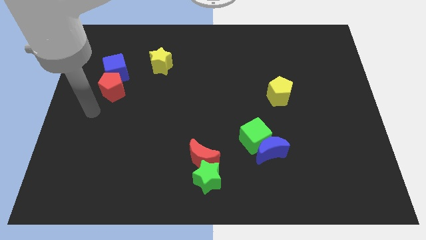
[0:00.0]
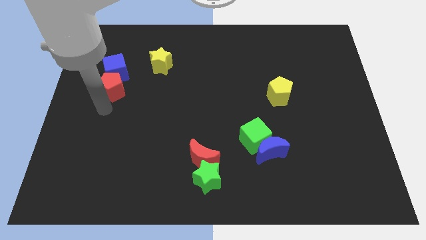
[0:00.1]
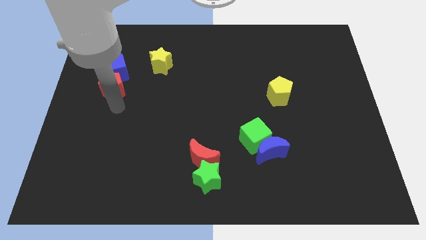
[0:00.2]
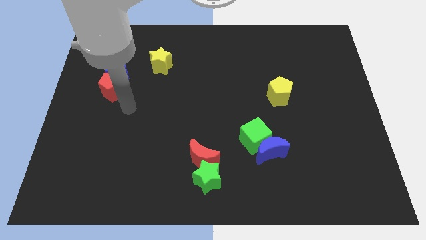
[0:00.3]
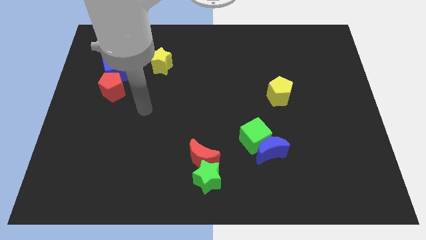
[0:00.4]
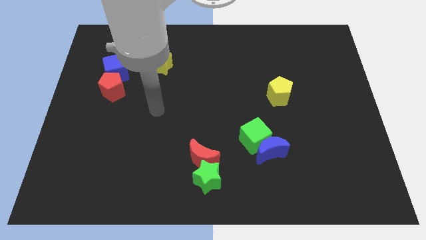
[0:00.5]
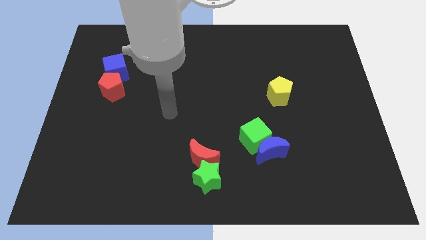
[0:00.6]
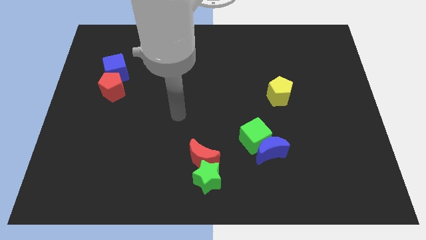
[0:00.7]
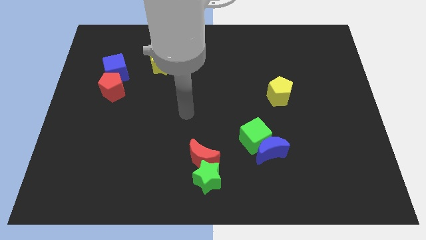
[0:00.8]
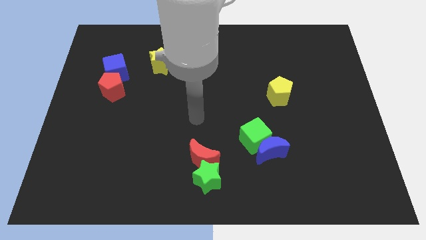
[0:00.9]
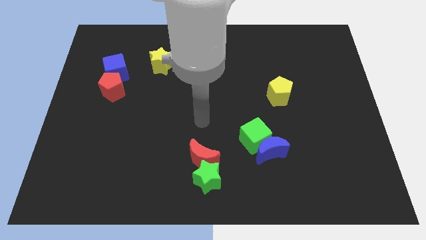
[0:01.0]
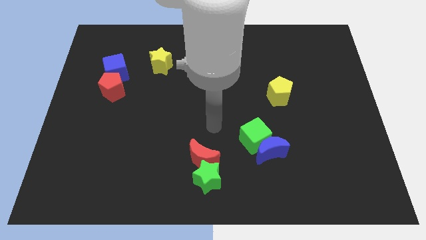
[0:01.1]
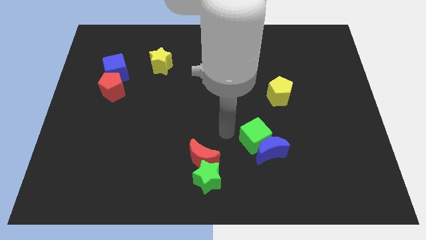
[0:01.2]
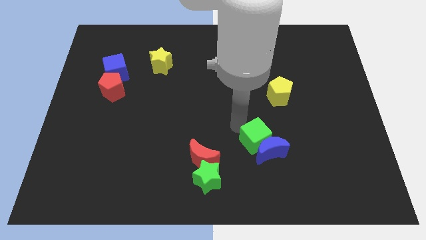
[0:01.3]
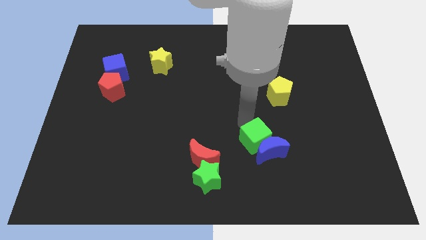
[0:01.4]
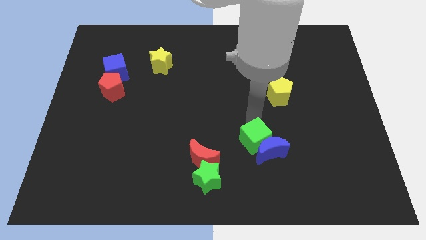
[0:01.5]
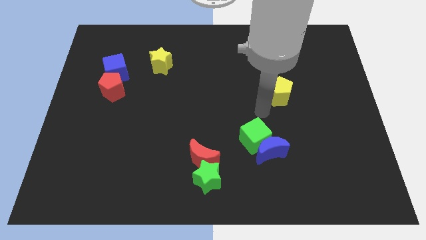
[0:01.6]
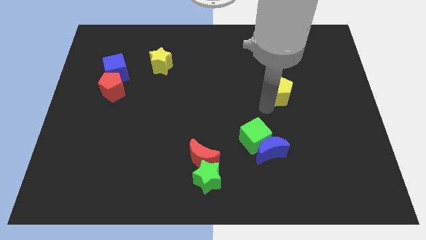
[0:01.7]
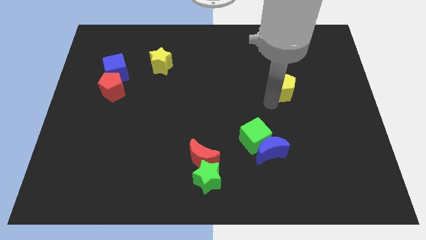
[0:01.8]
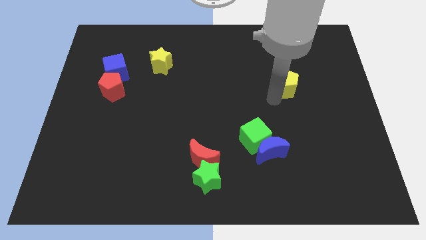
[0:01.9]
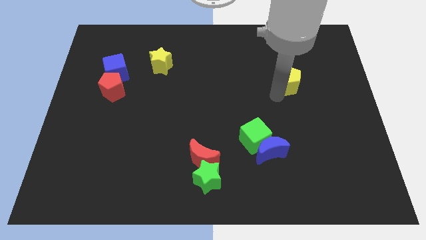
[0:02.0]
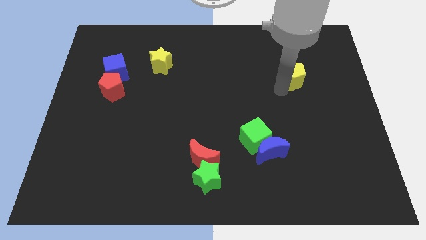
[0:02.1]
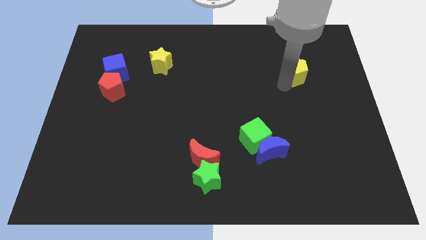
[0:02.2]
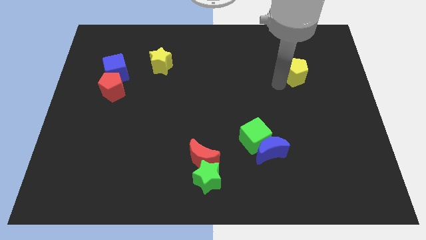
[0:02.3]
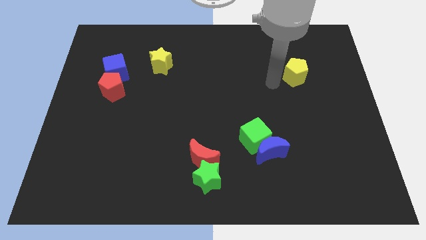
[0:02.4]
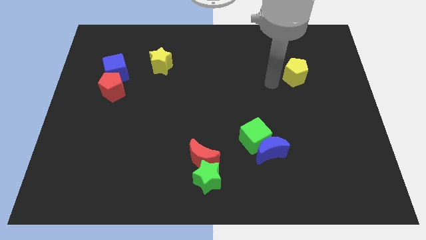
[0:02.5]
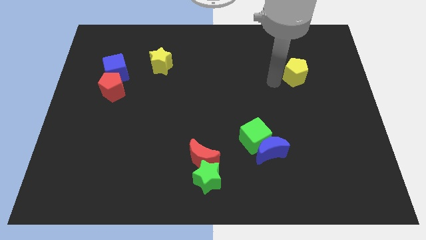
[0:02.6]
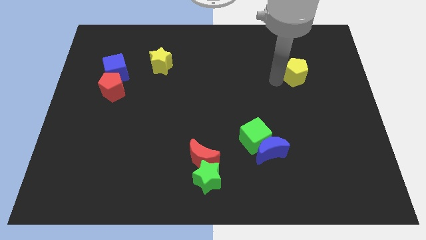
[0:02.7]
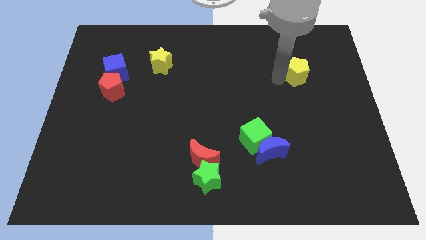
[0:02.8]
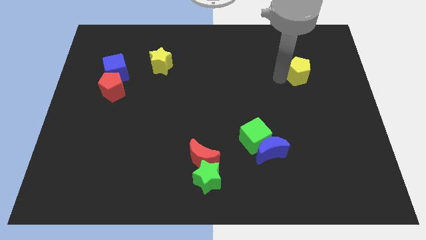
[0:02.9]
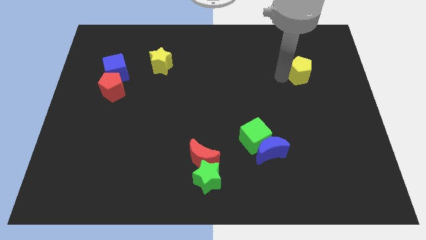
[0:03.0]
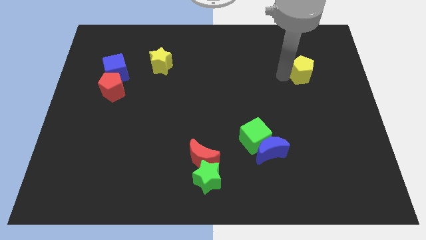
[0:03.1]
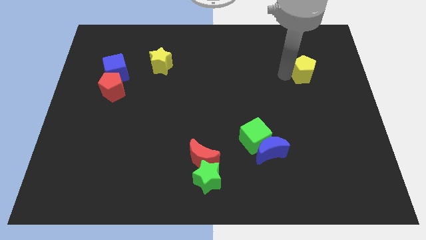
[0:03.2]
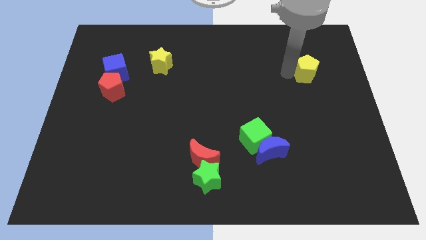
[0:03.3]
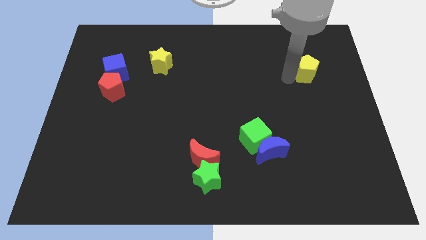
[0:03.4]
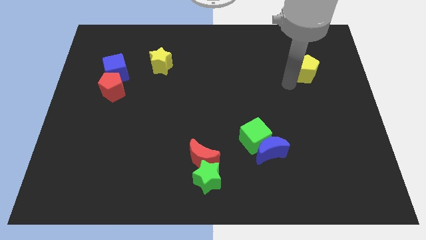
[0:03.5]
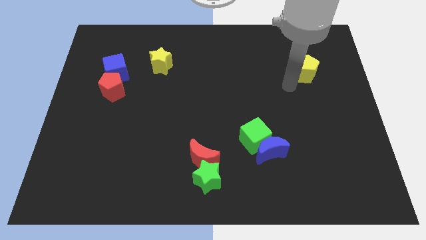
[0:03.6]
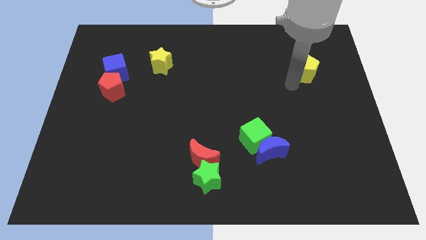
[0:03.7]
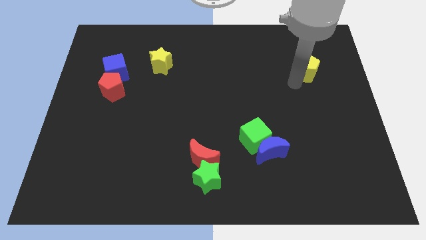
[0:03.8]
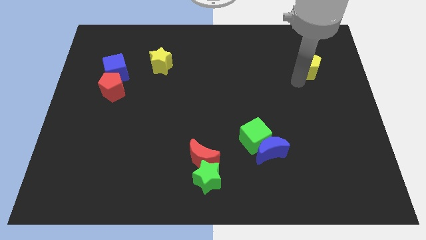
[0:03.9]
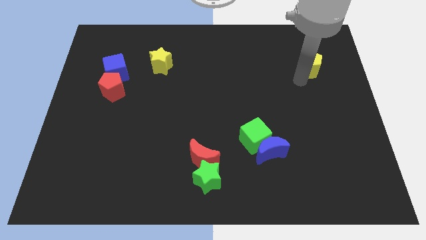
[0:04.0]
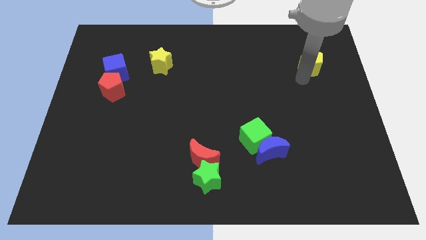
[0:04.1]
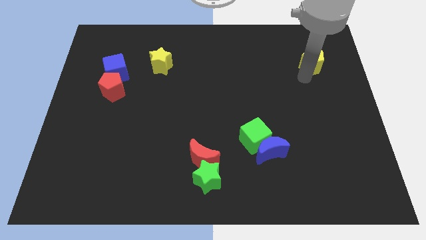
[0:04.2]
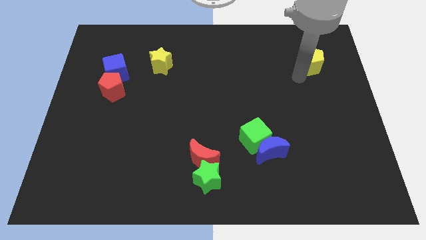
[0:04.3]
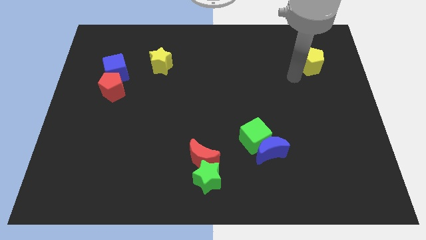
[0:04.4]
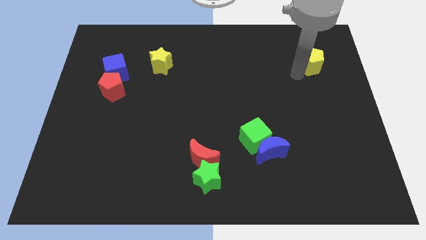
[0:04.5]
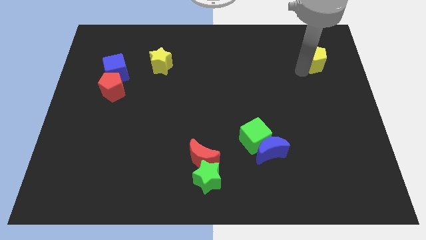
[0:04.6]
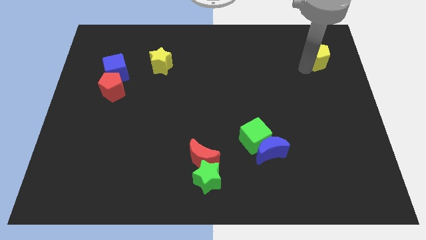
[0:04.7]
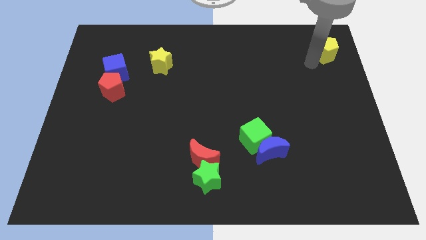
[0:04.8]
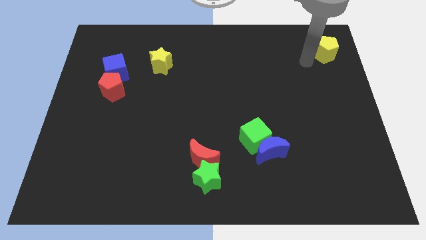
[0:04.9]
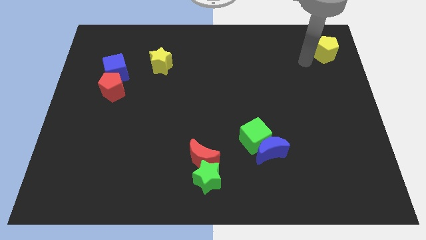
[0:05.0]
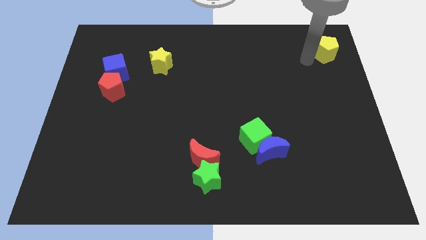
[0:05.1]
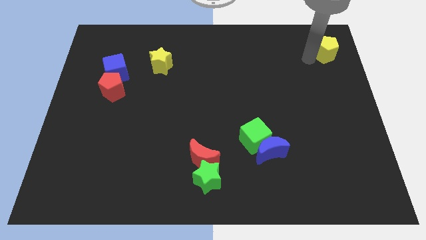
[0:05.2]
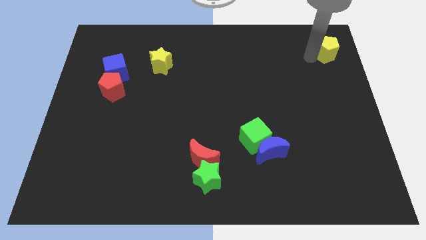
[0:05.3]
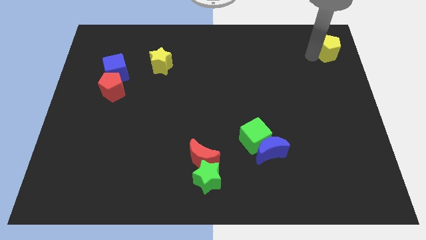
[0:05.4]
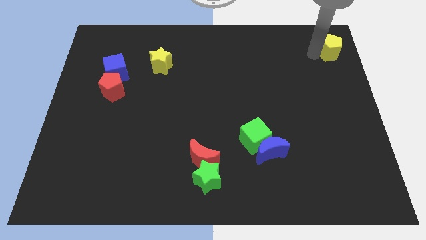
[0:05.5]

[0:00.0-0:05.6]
put the yellow pentagon to the upper right corner

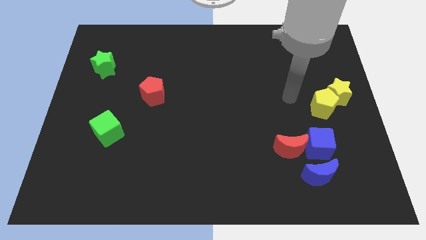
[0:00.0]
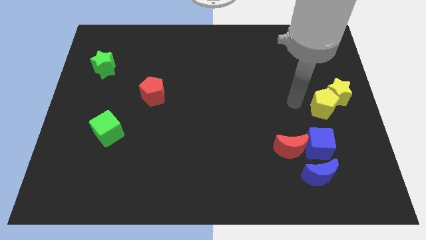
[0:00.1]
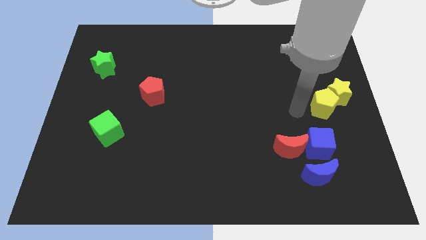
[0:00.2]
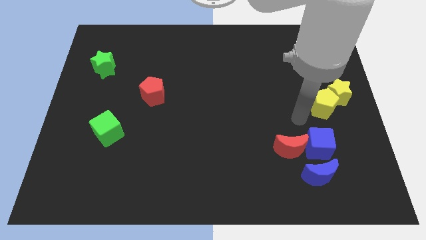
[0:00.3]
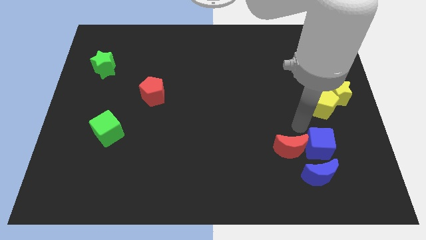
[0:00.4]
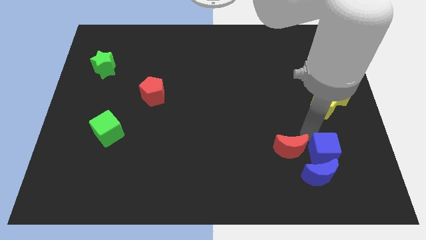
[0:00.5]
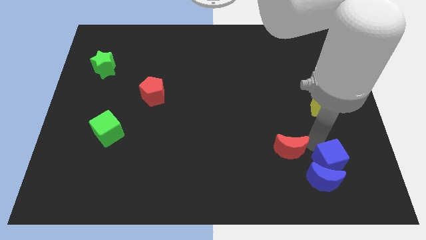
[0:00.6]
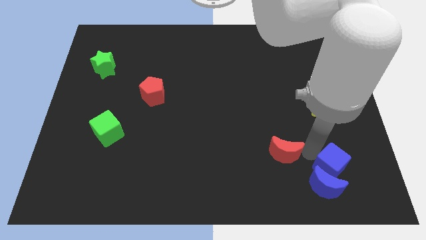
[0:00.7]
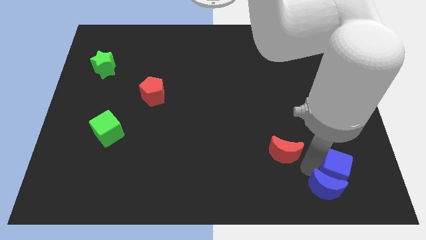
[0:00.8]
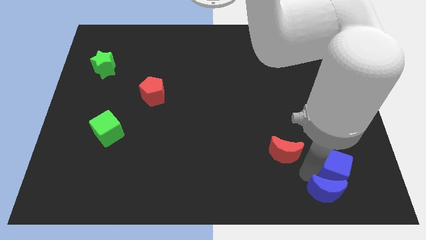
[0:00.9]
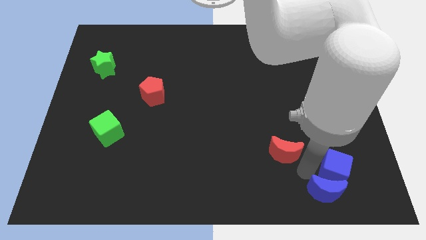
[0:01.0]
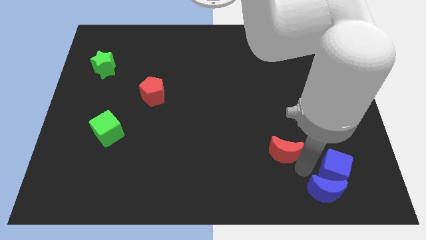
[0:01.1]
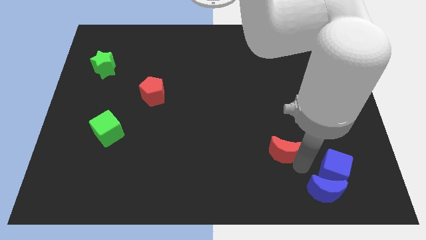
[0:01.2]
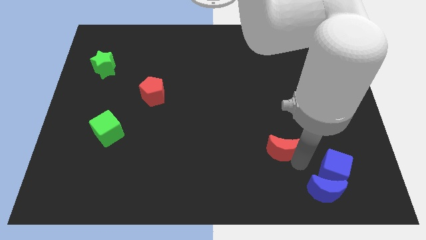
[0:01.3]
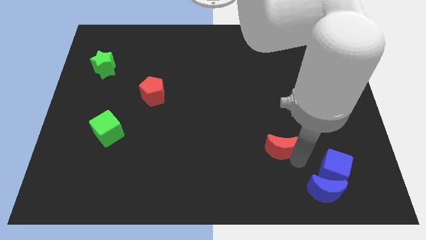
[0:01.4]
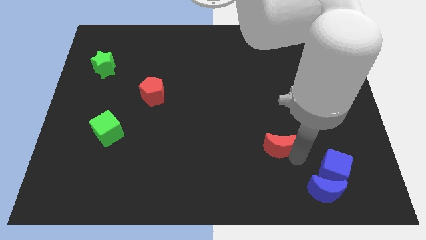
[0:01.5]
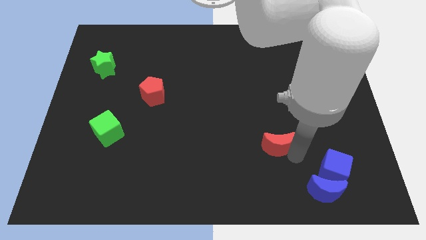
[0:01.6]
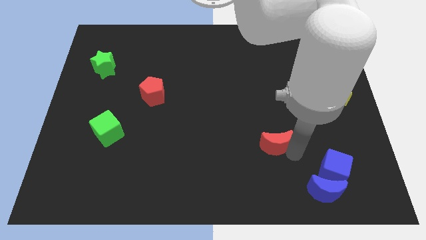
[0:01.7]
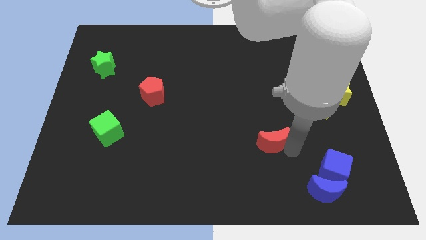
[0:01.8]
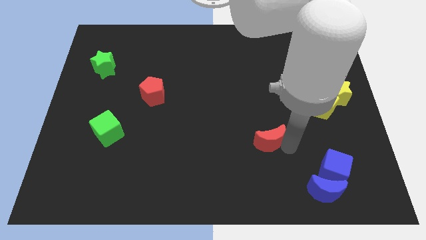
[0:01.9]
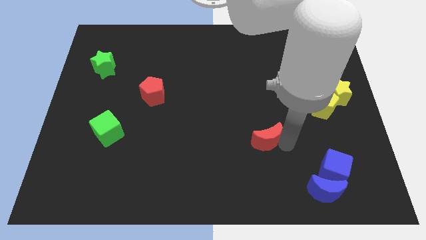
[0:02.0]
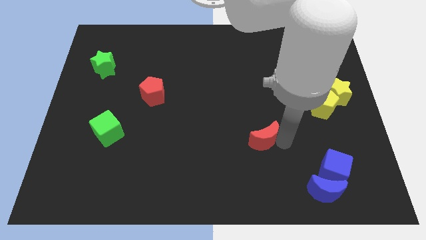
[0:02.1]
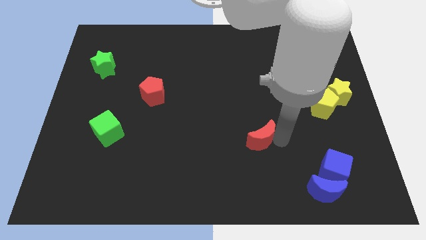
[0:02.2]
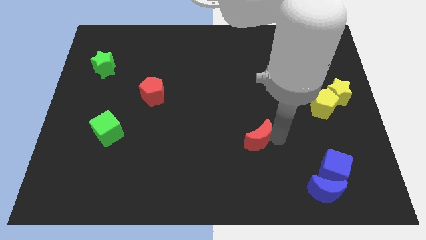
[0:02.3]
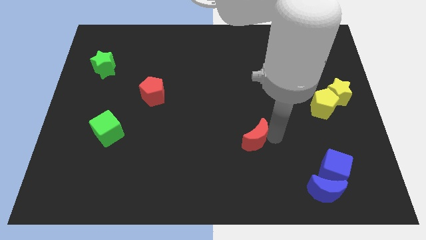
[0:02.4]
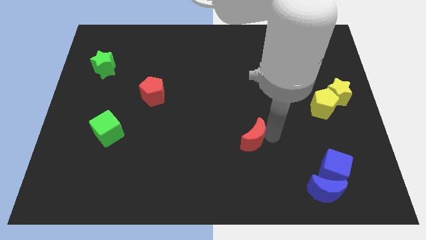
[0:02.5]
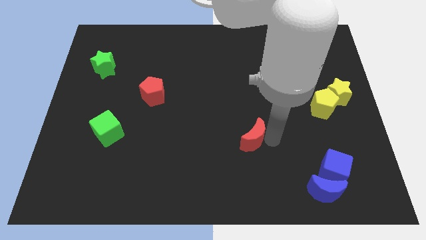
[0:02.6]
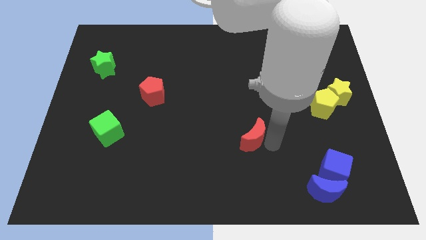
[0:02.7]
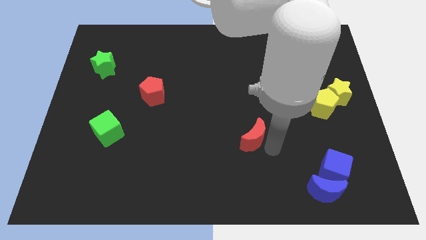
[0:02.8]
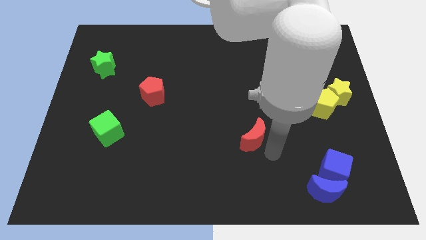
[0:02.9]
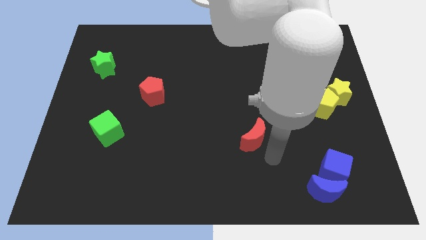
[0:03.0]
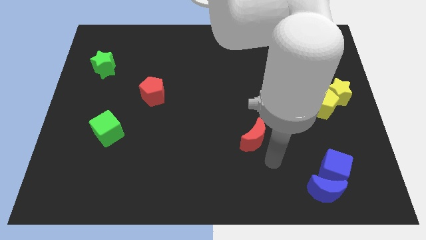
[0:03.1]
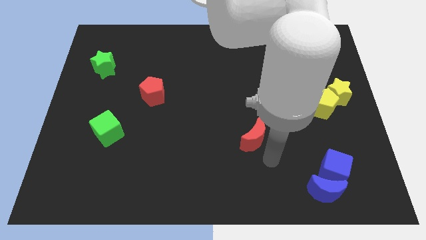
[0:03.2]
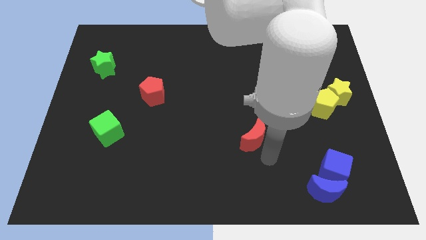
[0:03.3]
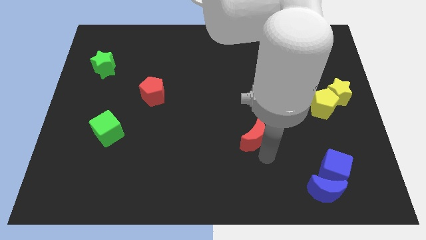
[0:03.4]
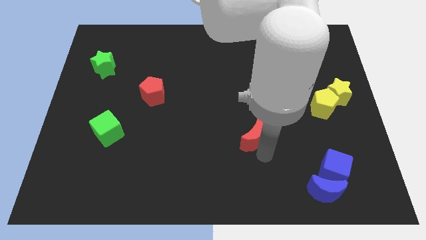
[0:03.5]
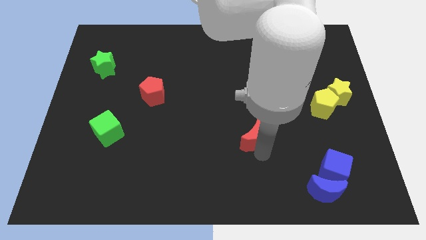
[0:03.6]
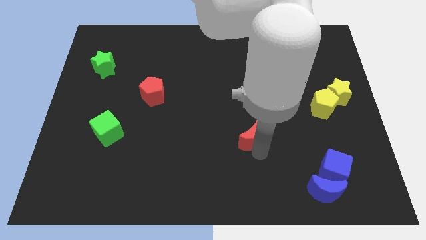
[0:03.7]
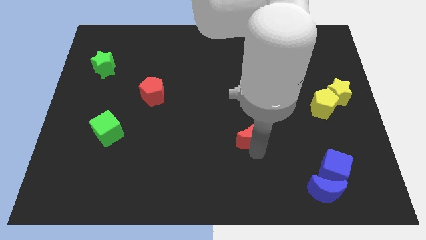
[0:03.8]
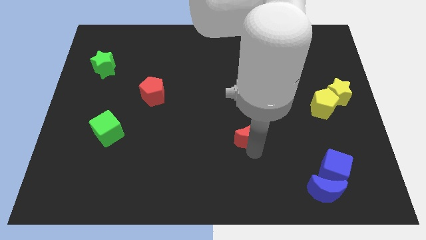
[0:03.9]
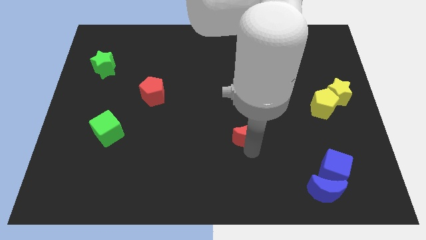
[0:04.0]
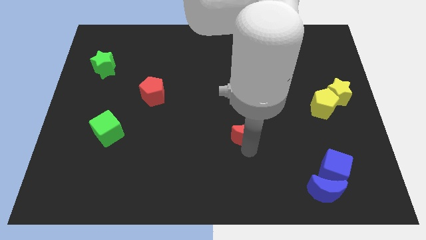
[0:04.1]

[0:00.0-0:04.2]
move the red moon to the center
